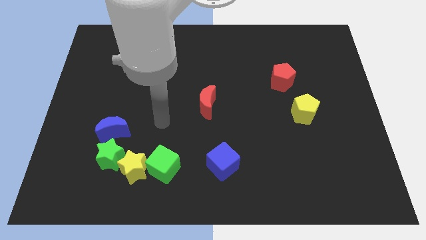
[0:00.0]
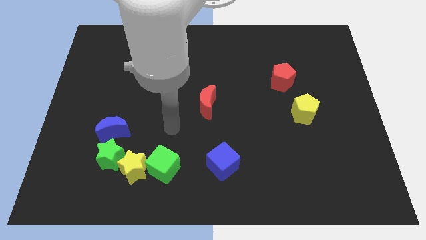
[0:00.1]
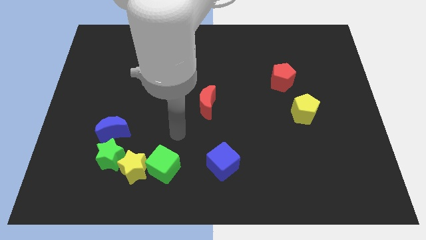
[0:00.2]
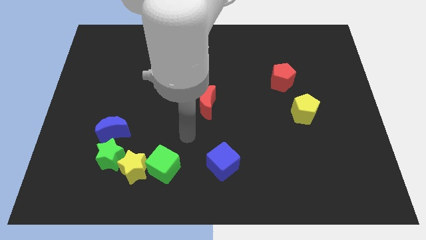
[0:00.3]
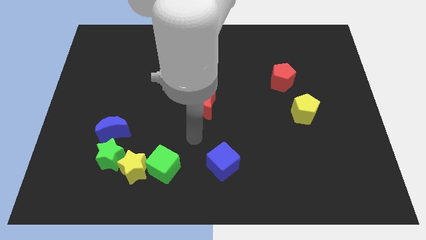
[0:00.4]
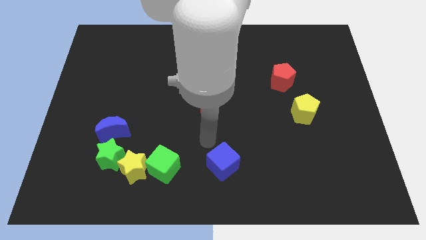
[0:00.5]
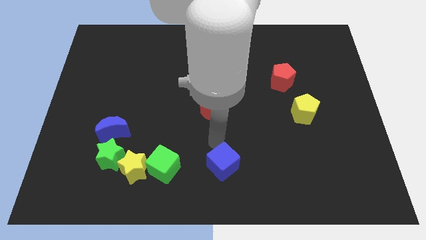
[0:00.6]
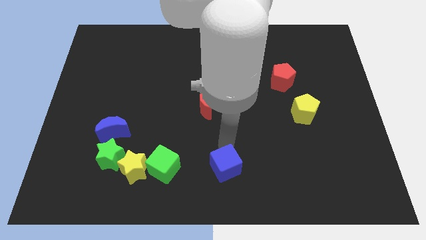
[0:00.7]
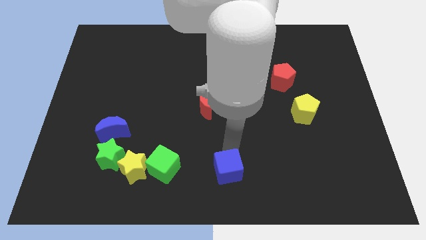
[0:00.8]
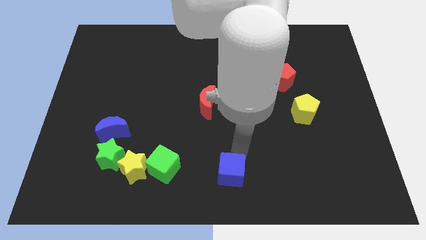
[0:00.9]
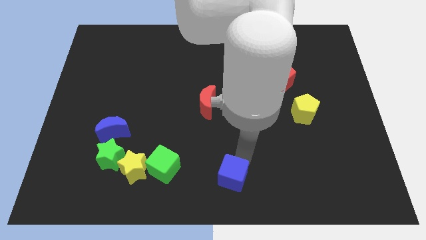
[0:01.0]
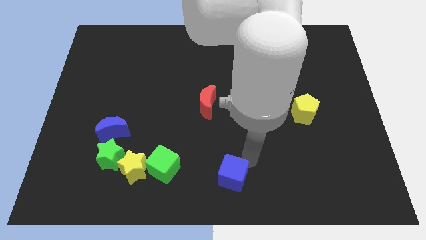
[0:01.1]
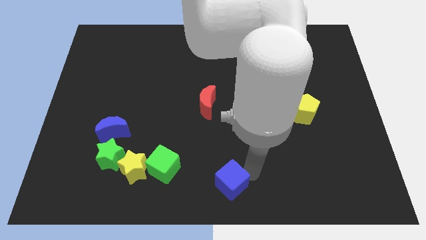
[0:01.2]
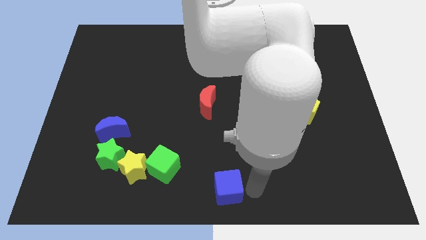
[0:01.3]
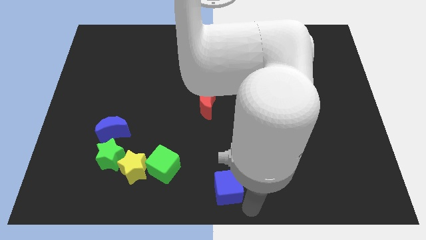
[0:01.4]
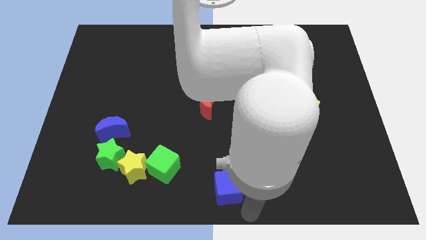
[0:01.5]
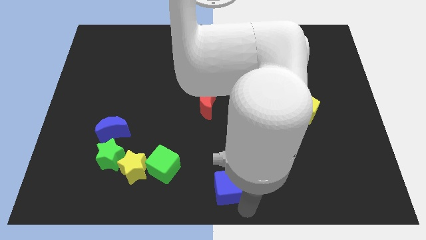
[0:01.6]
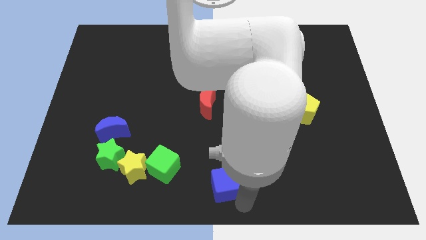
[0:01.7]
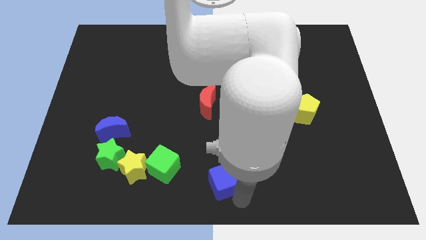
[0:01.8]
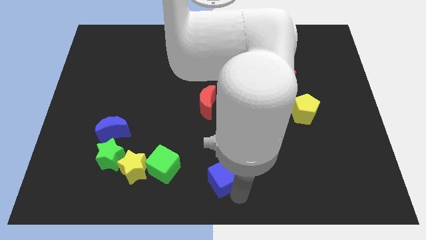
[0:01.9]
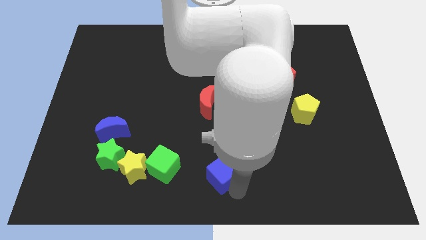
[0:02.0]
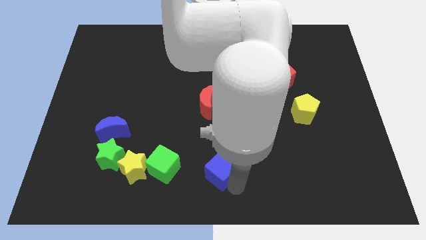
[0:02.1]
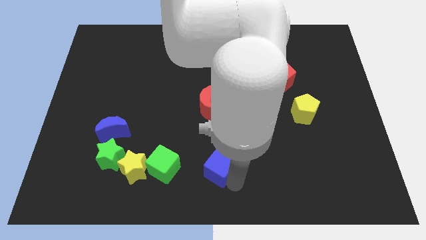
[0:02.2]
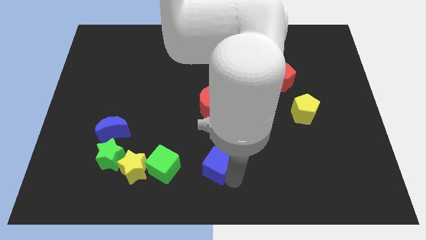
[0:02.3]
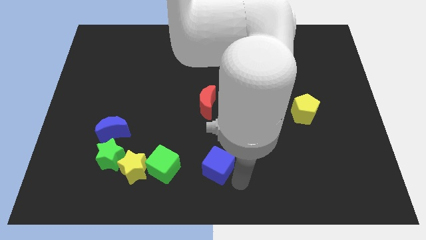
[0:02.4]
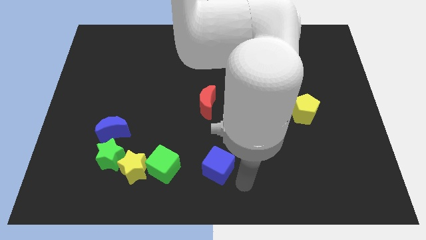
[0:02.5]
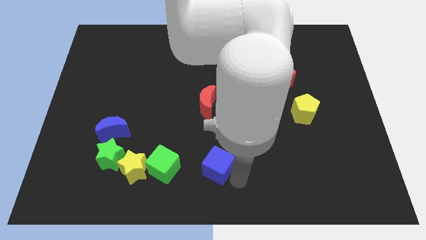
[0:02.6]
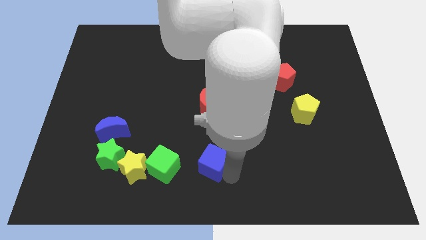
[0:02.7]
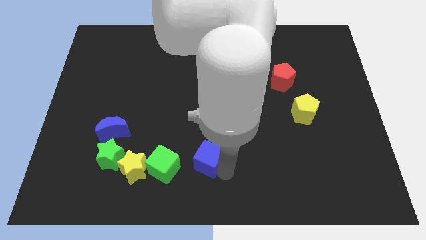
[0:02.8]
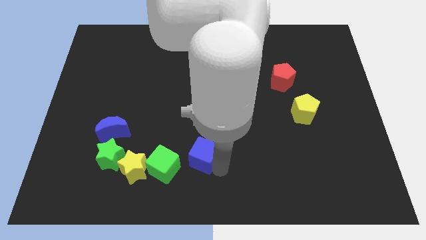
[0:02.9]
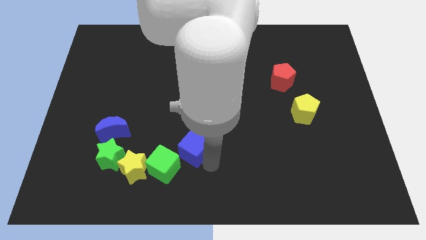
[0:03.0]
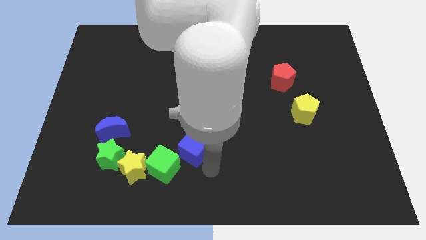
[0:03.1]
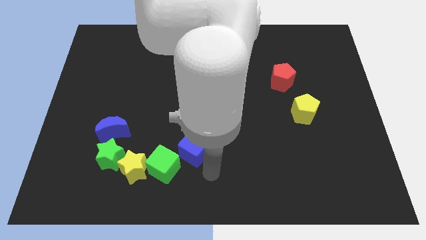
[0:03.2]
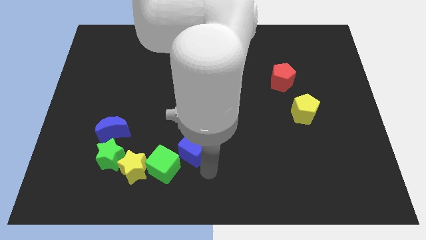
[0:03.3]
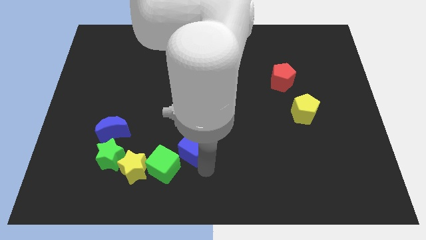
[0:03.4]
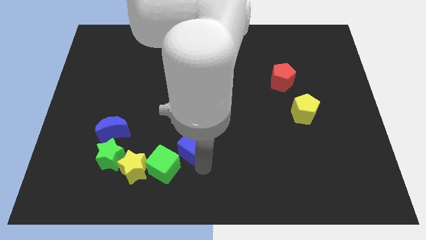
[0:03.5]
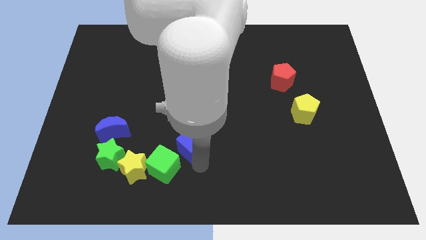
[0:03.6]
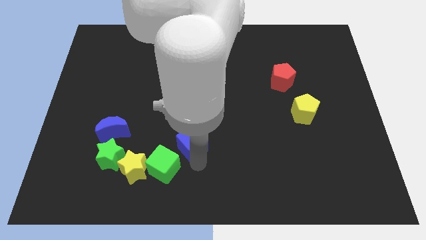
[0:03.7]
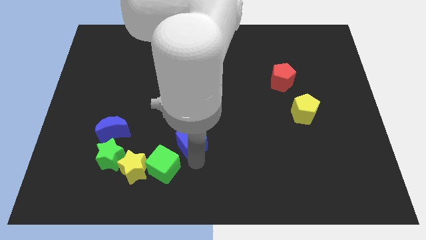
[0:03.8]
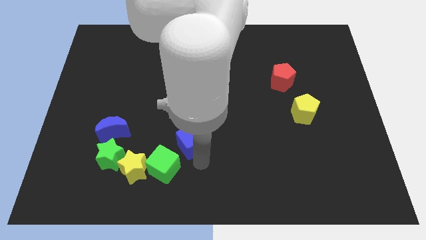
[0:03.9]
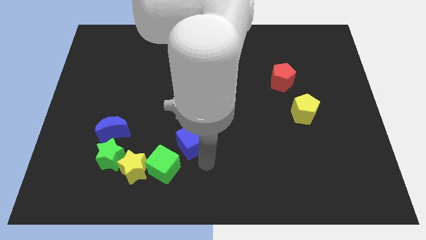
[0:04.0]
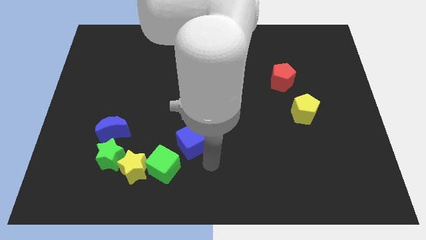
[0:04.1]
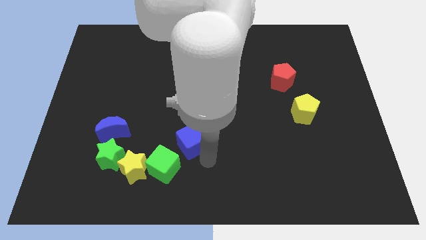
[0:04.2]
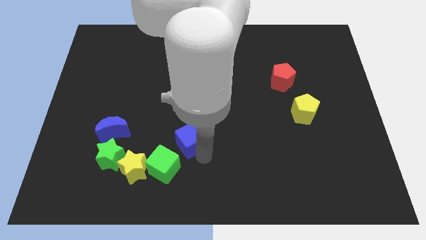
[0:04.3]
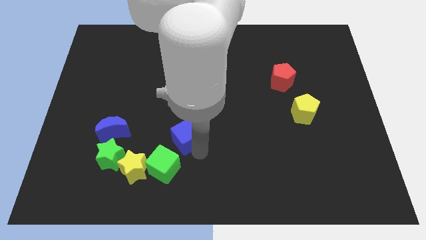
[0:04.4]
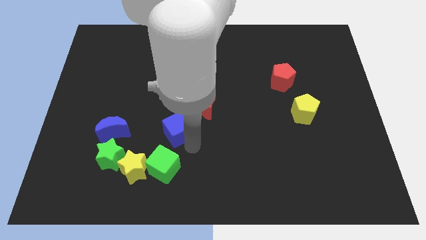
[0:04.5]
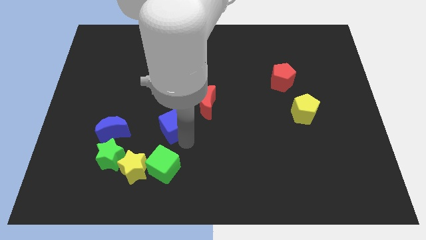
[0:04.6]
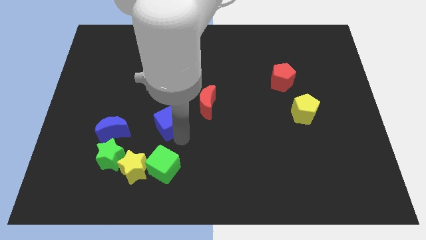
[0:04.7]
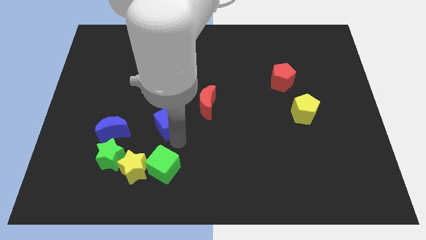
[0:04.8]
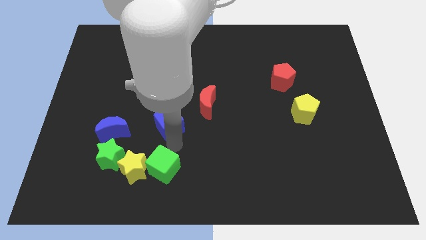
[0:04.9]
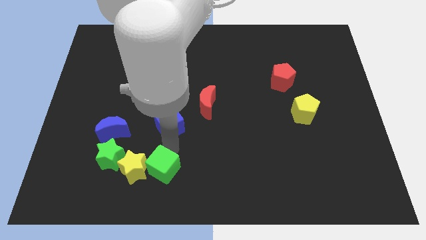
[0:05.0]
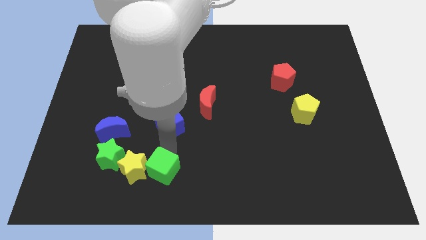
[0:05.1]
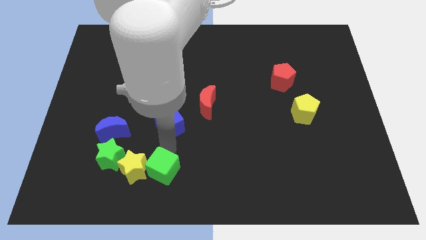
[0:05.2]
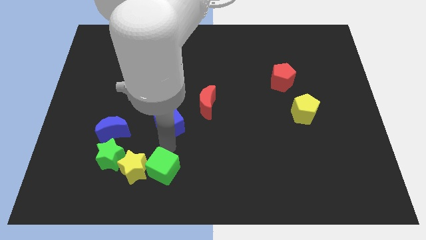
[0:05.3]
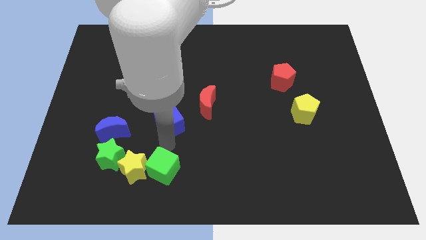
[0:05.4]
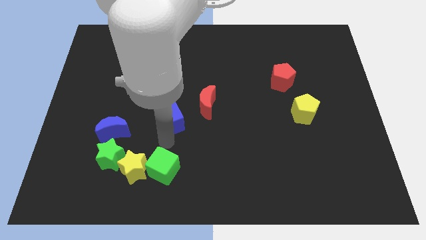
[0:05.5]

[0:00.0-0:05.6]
move the blue cube to the left side of the red moon

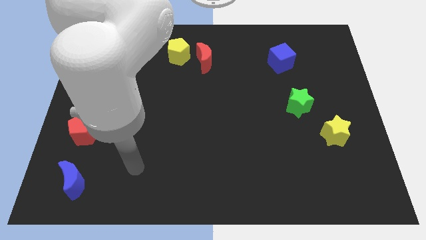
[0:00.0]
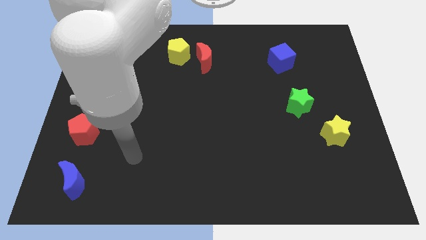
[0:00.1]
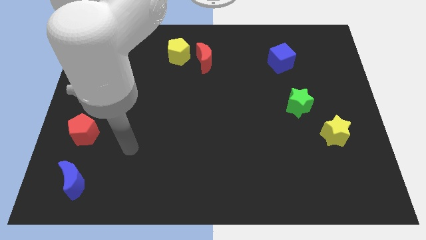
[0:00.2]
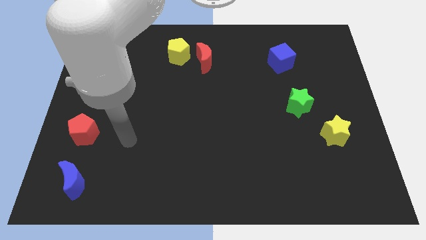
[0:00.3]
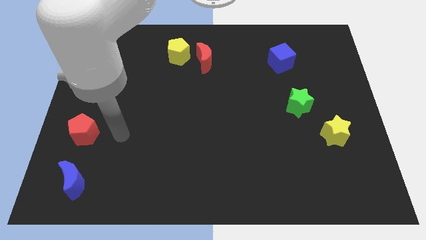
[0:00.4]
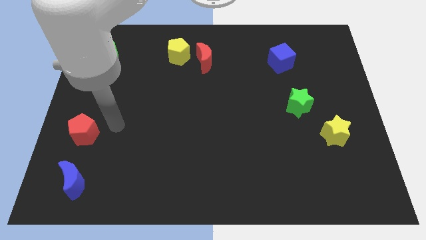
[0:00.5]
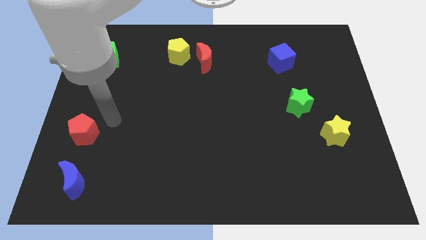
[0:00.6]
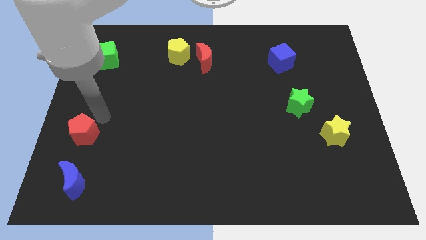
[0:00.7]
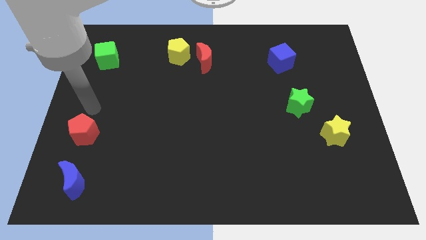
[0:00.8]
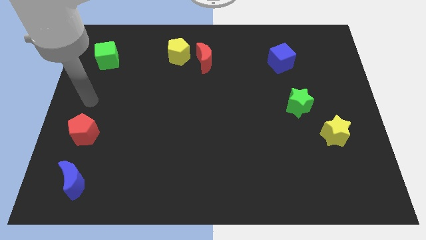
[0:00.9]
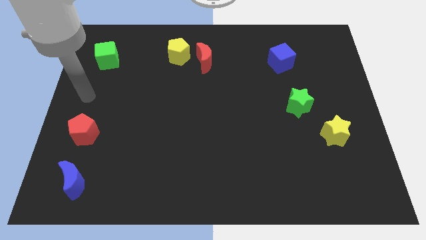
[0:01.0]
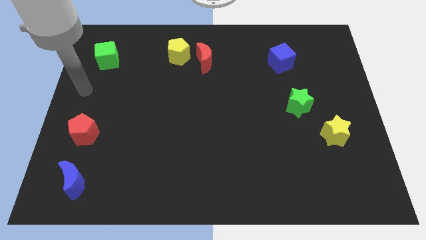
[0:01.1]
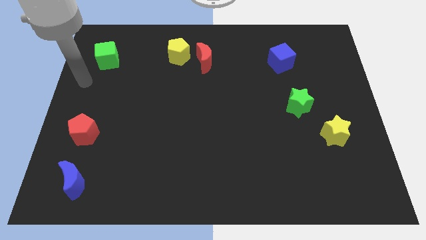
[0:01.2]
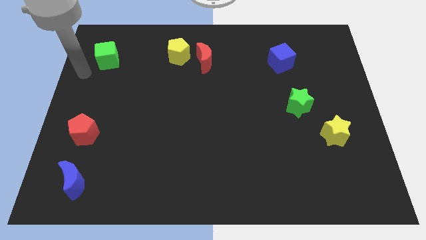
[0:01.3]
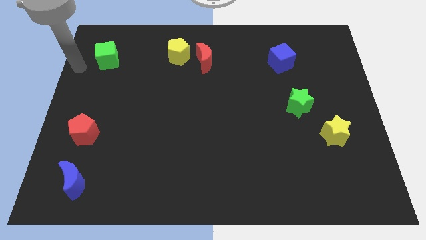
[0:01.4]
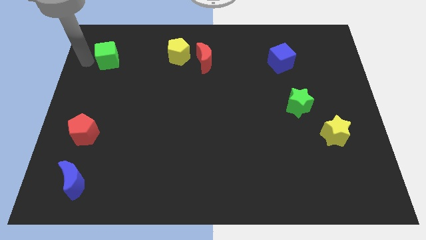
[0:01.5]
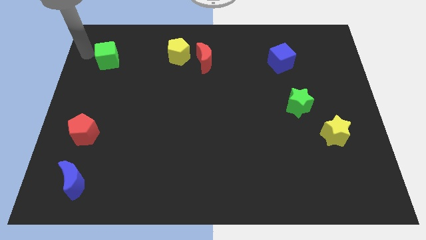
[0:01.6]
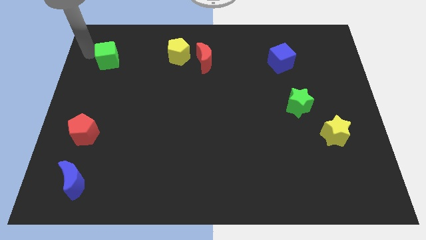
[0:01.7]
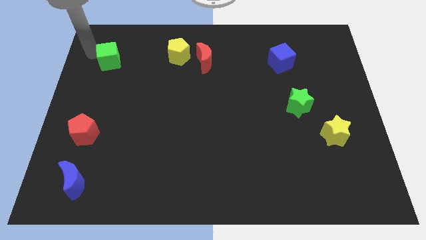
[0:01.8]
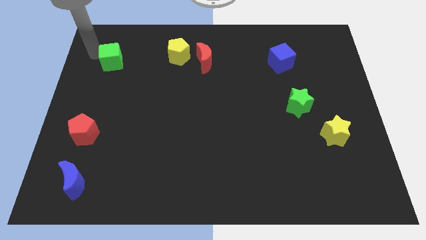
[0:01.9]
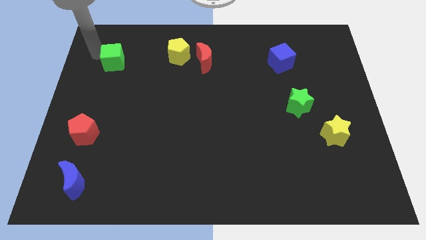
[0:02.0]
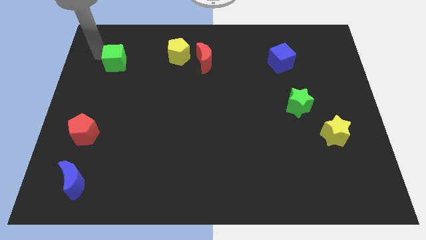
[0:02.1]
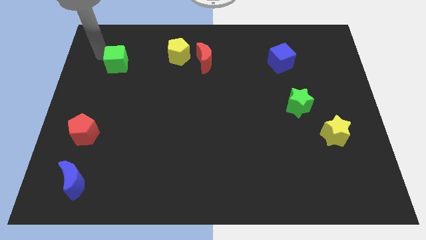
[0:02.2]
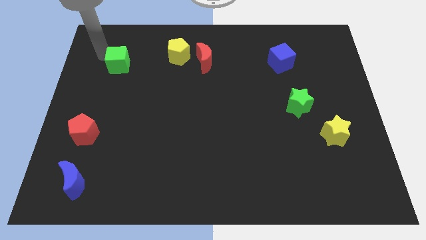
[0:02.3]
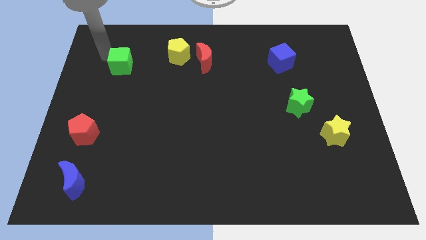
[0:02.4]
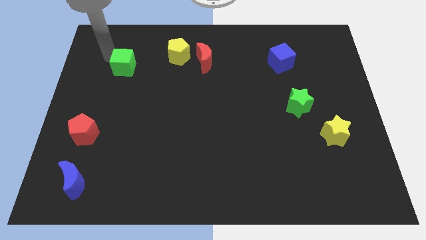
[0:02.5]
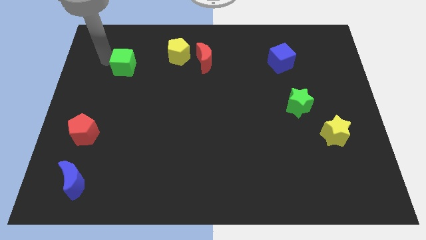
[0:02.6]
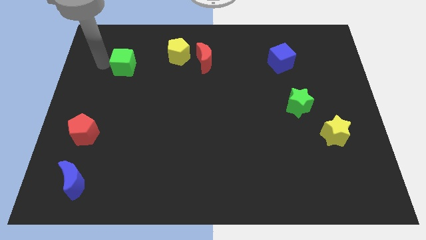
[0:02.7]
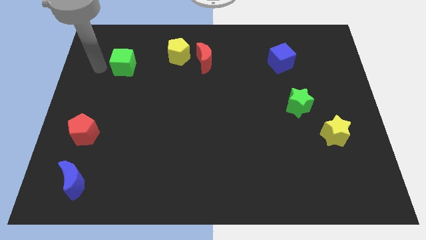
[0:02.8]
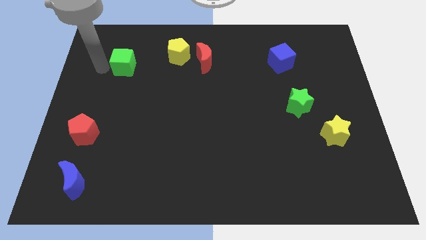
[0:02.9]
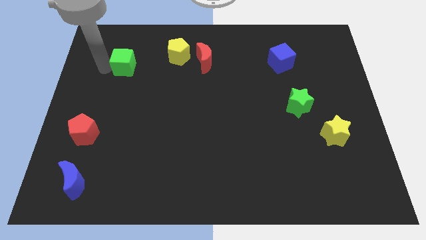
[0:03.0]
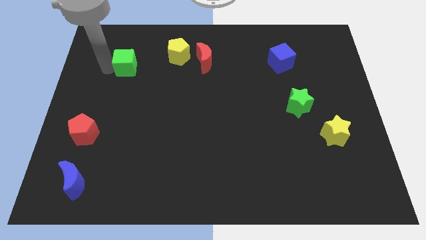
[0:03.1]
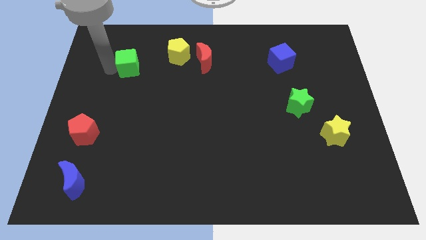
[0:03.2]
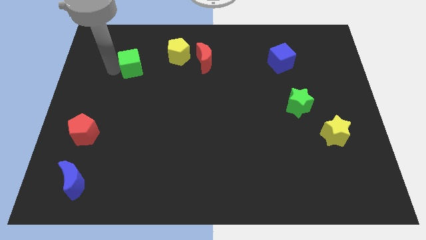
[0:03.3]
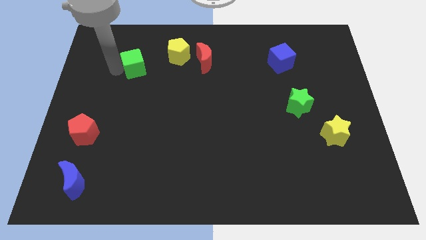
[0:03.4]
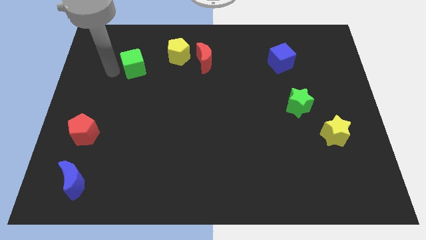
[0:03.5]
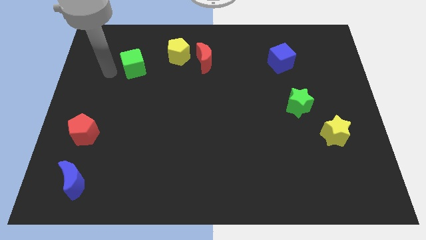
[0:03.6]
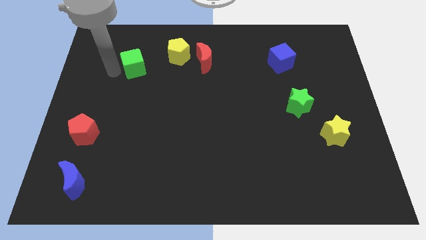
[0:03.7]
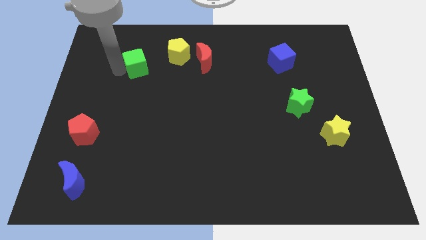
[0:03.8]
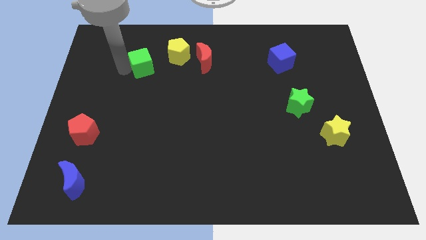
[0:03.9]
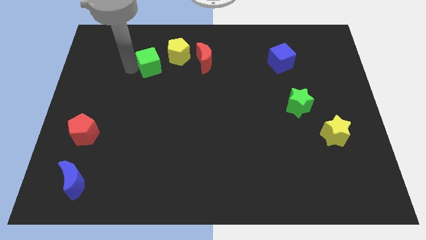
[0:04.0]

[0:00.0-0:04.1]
push the green cube to the left of the red moon
